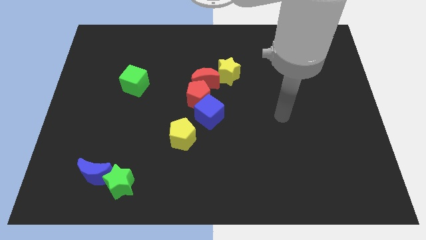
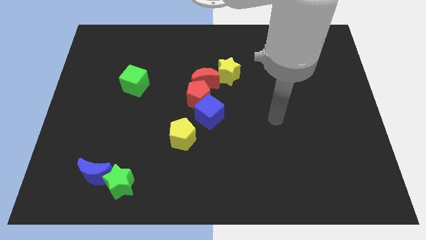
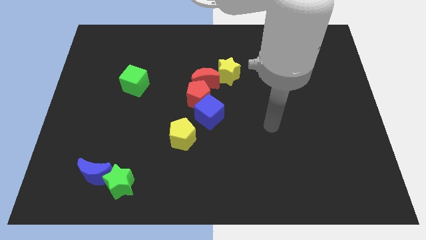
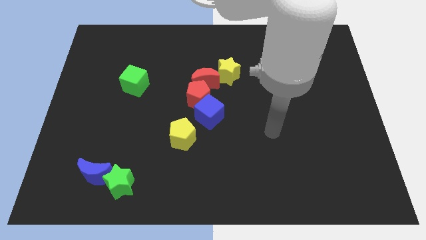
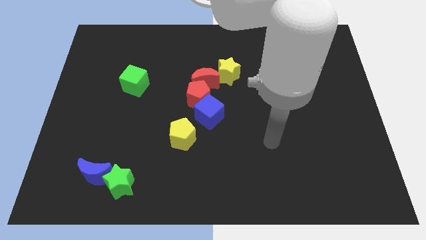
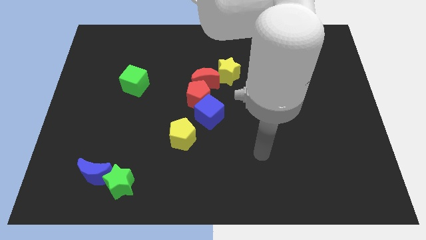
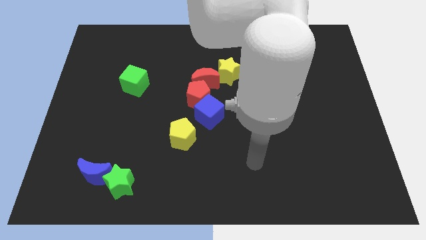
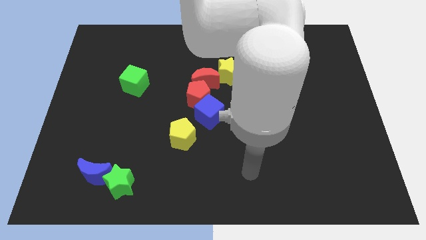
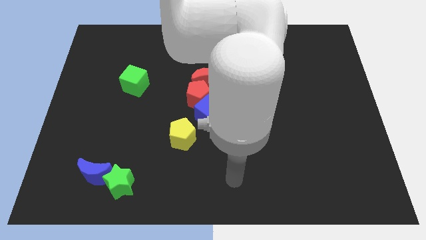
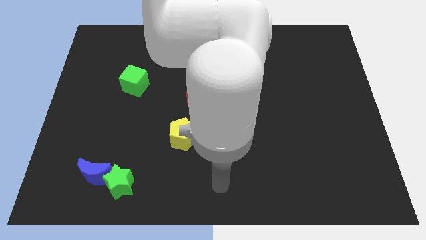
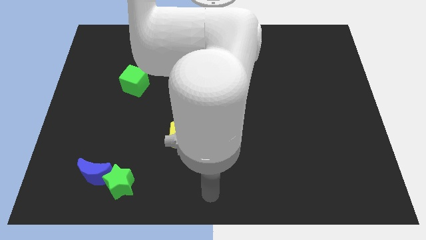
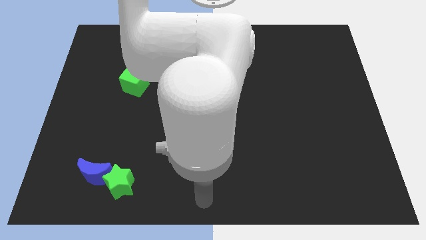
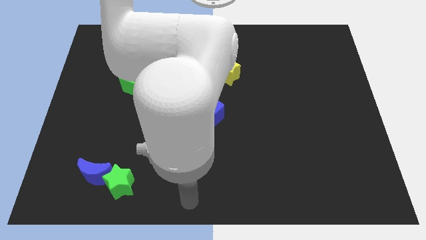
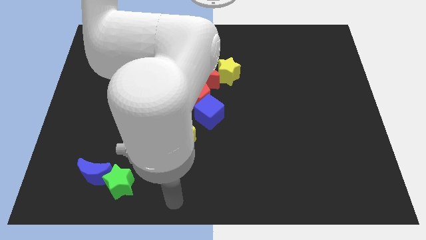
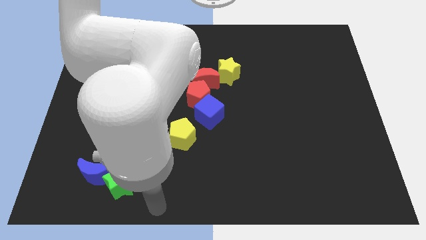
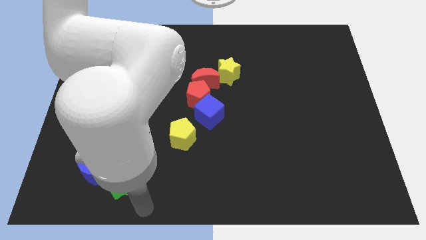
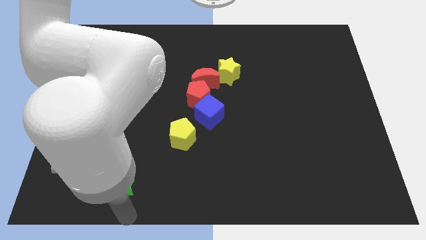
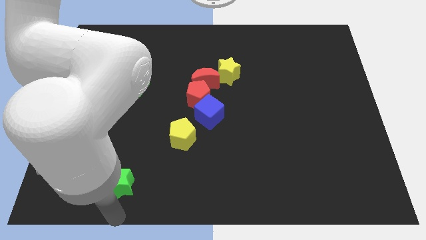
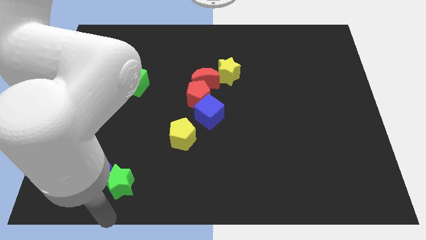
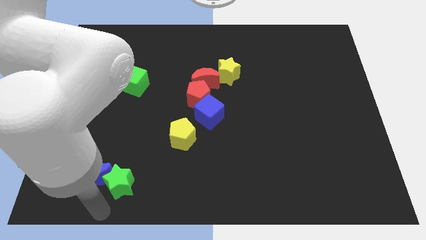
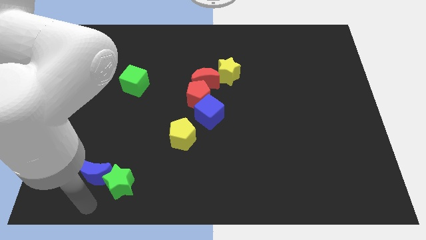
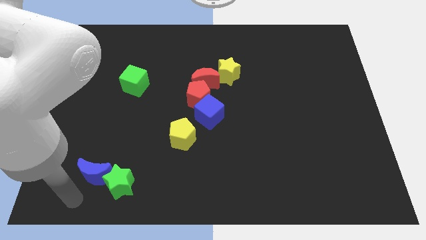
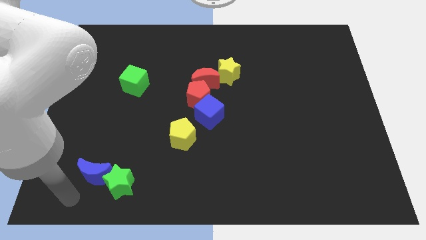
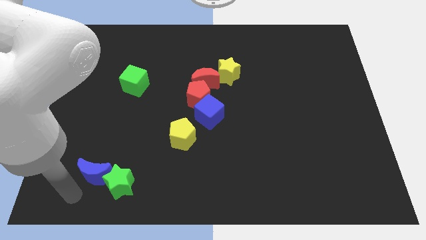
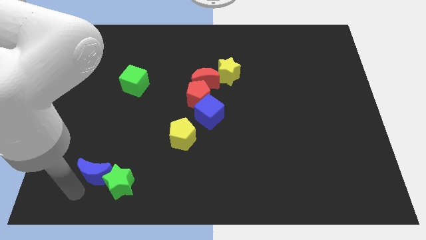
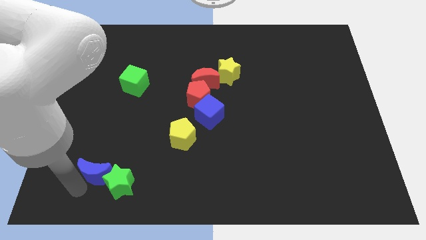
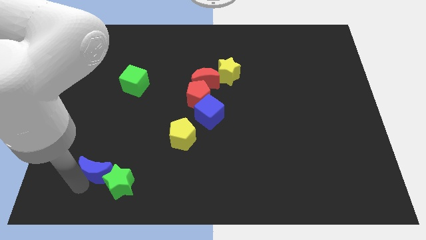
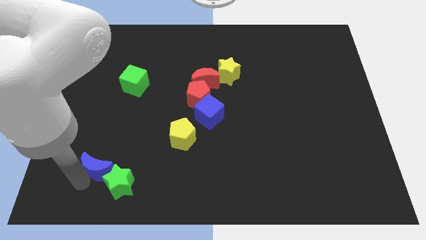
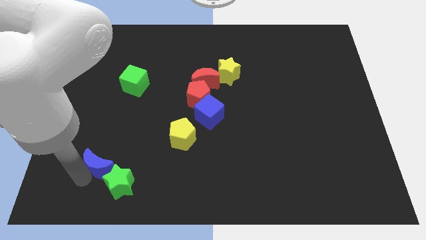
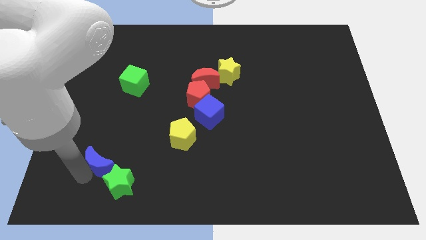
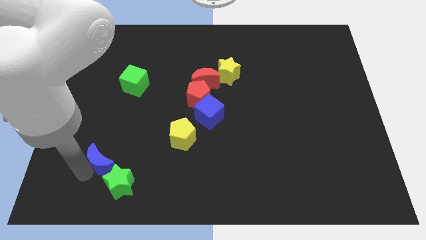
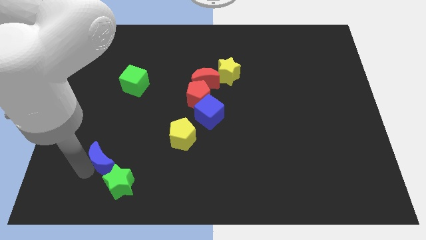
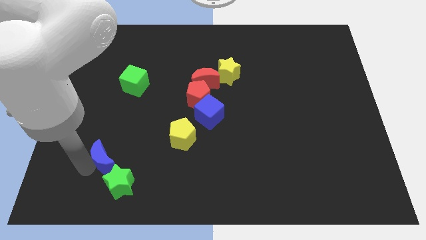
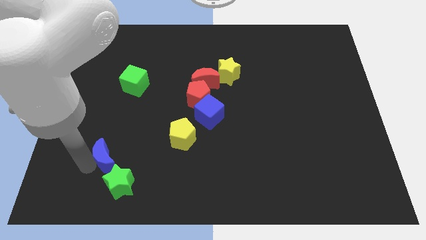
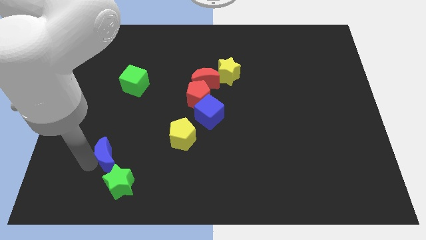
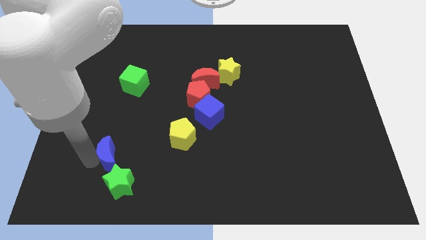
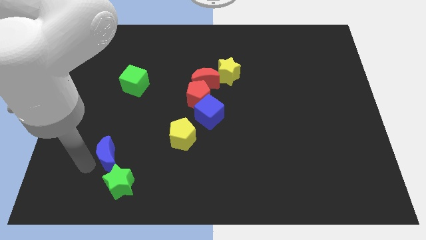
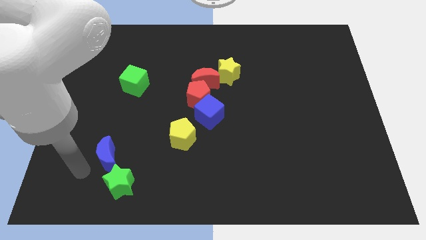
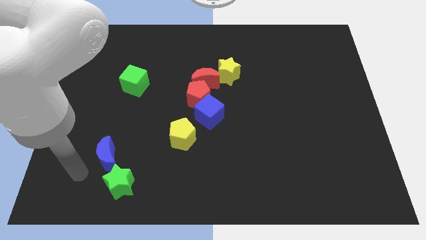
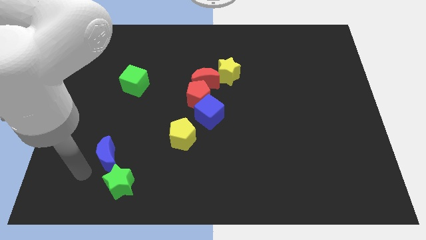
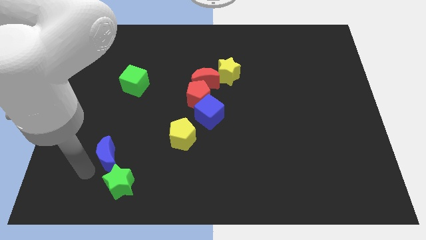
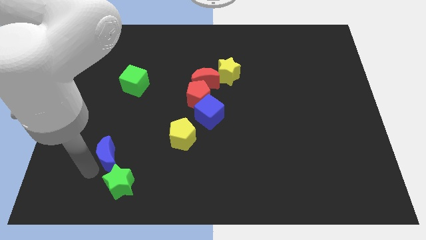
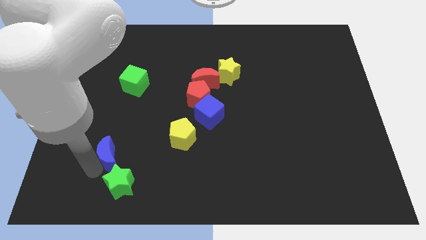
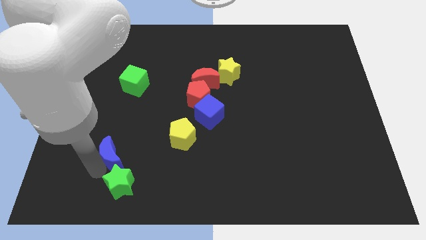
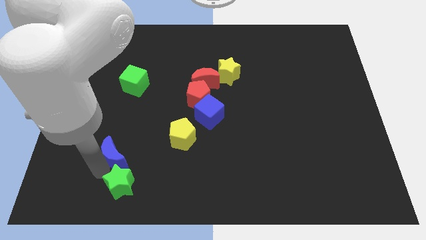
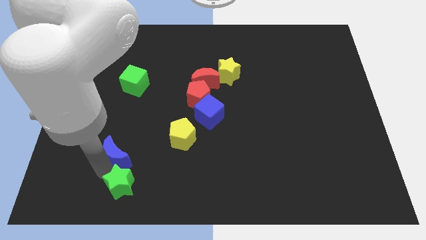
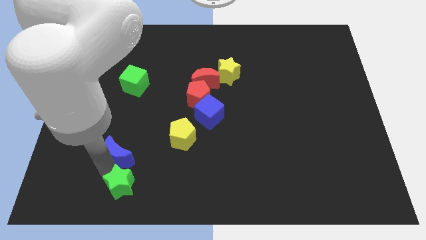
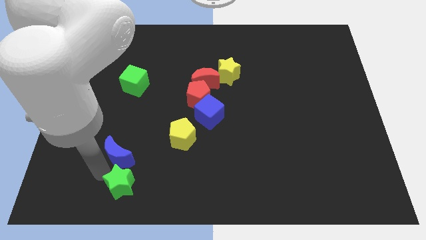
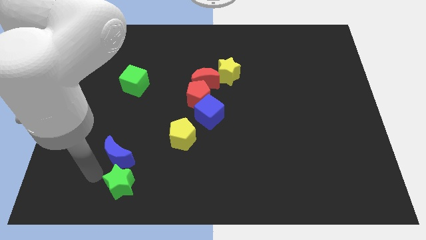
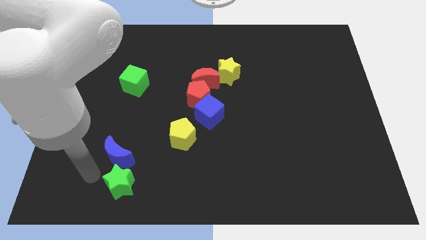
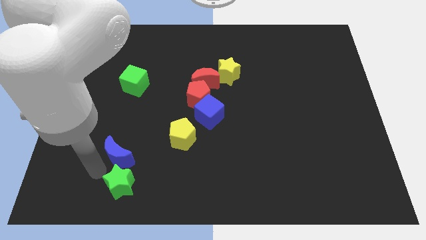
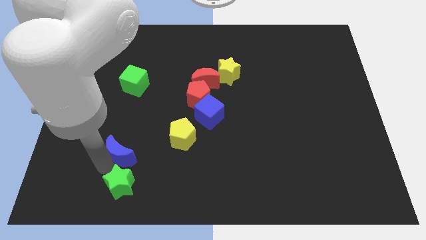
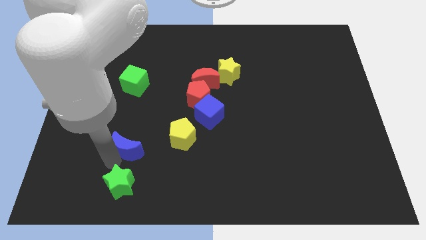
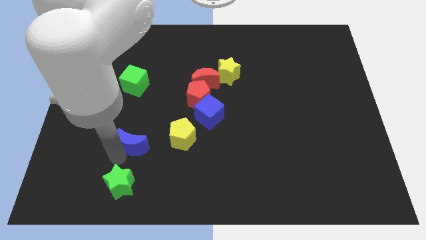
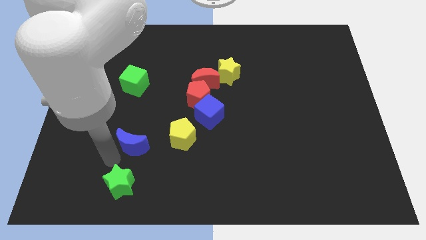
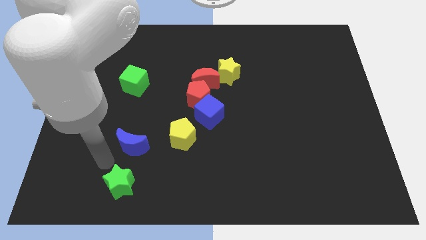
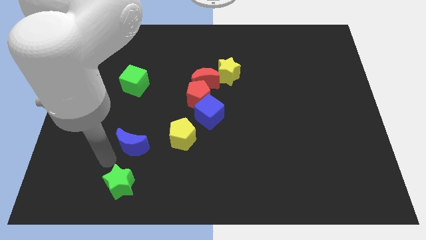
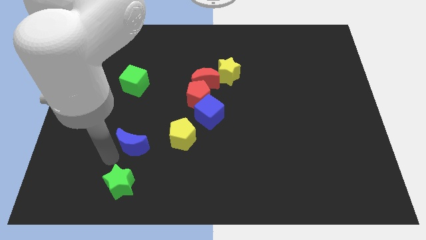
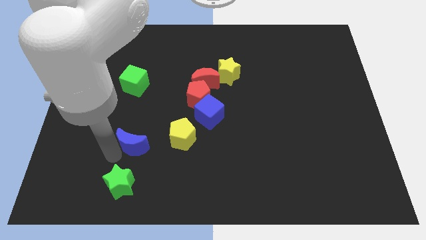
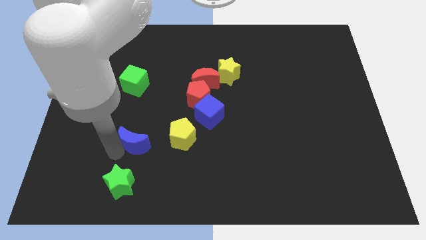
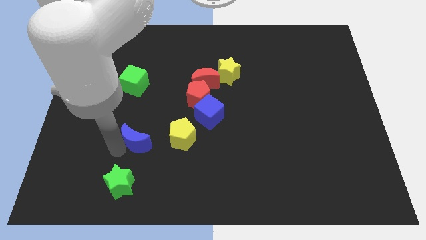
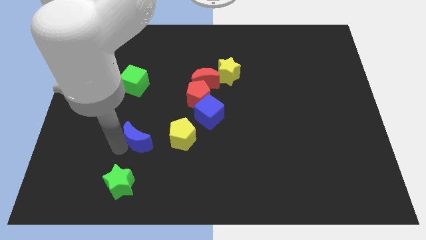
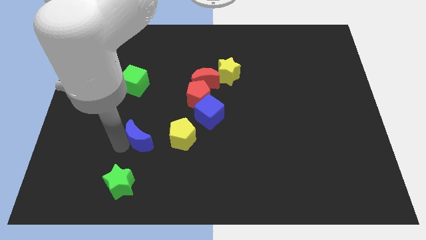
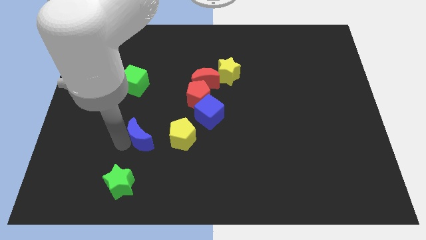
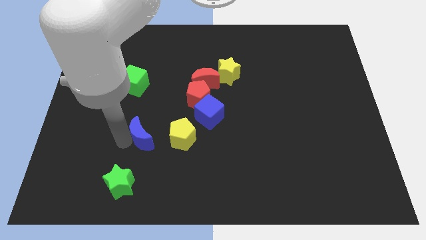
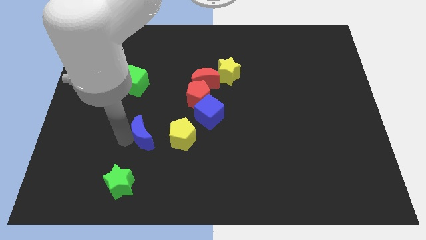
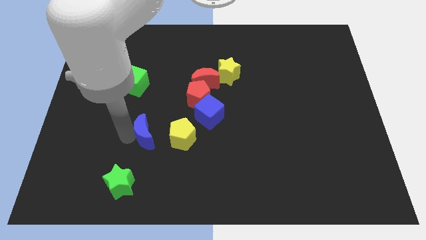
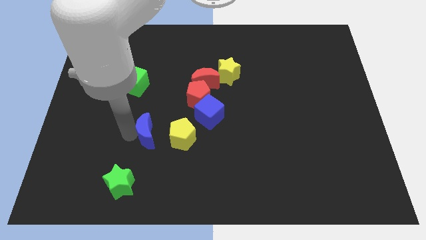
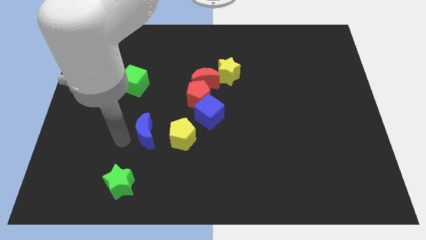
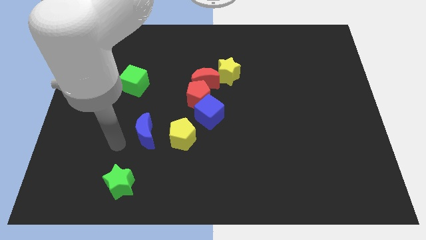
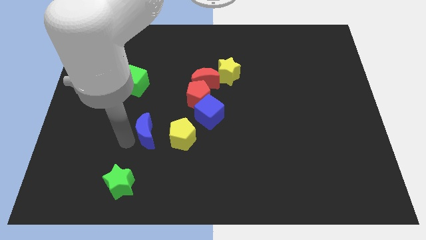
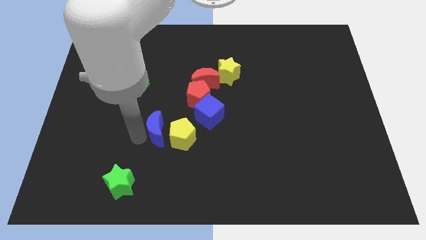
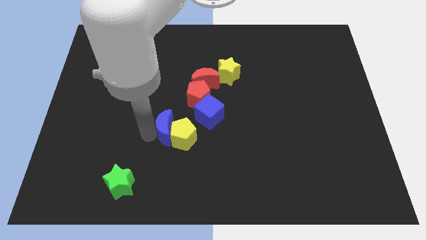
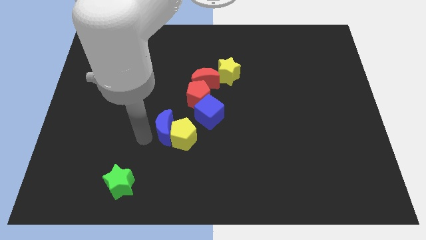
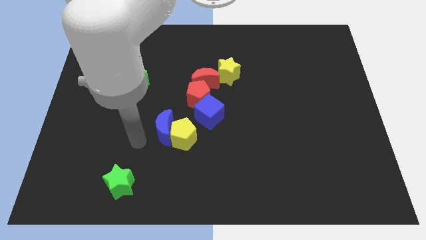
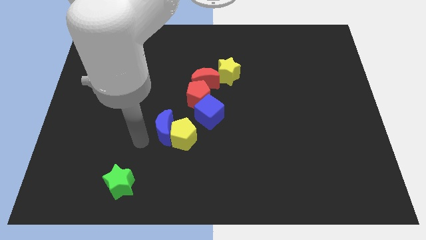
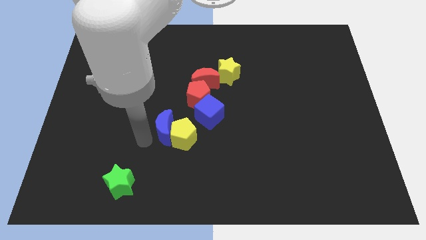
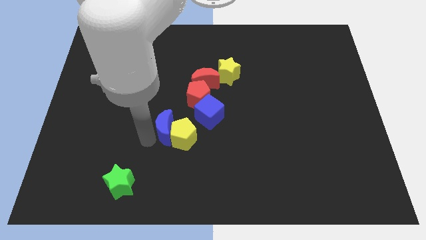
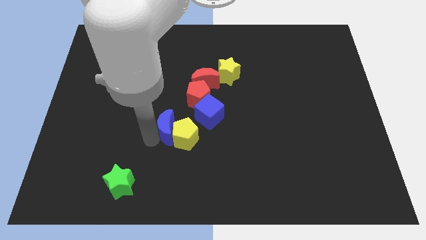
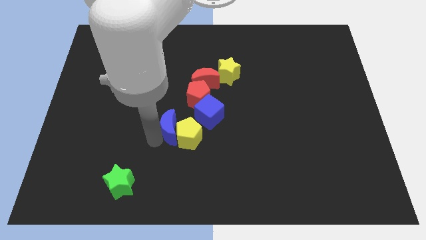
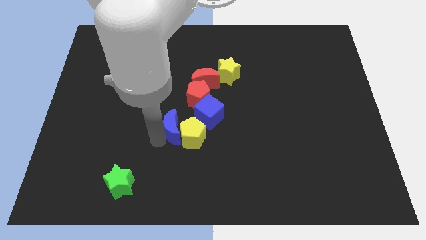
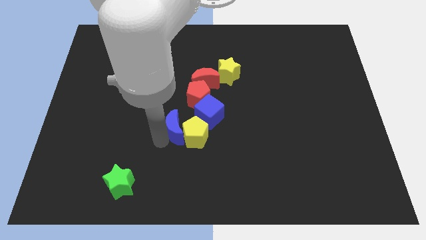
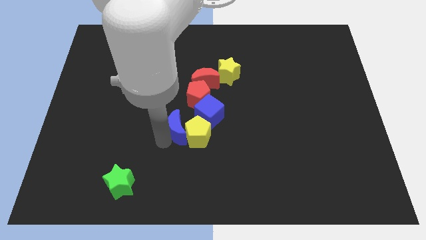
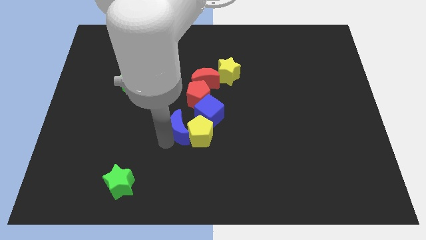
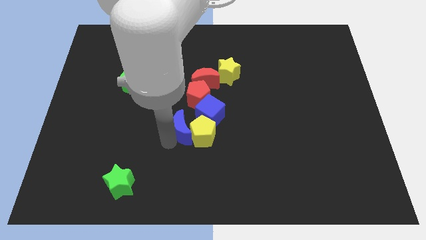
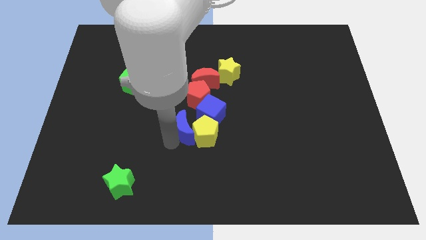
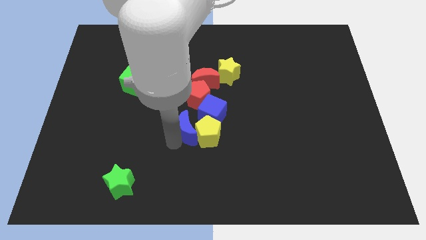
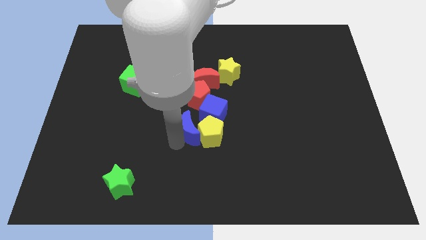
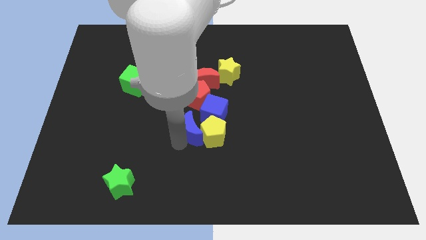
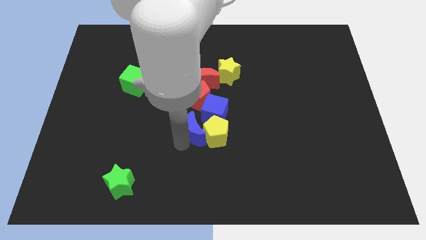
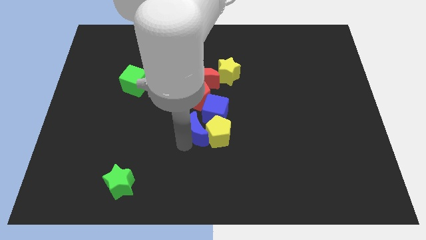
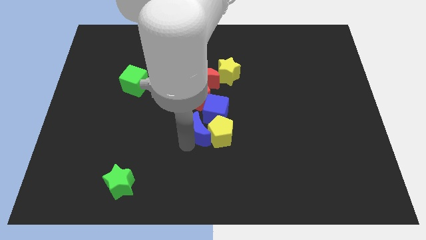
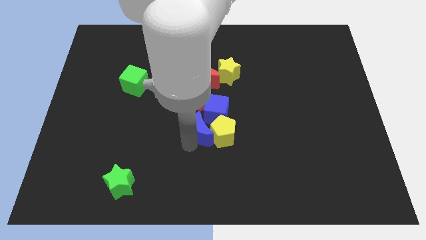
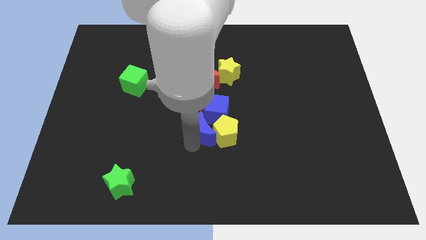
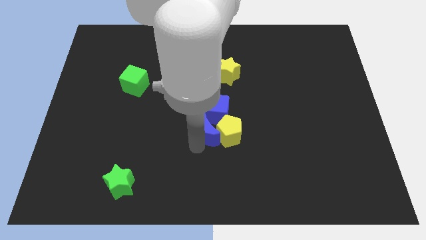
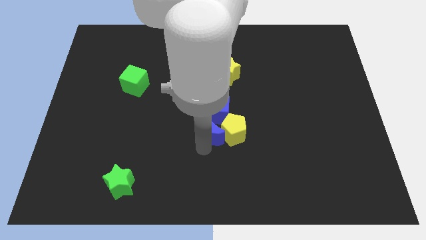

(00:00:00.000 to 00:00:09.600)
put the blue moon to the blue cube
